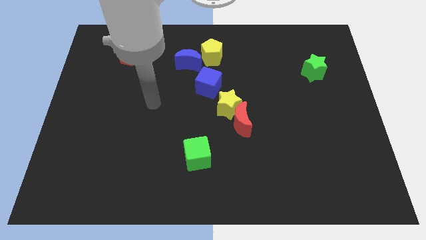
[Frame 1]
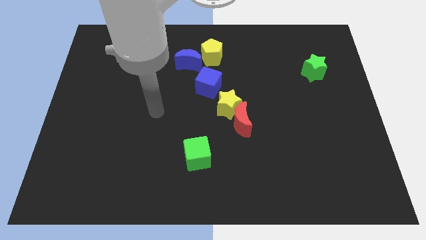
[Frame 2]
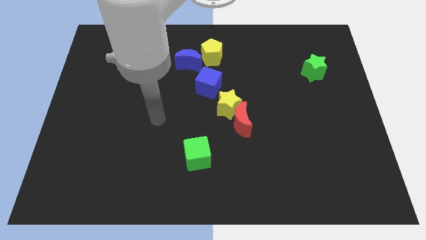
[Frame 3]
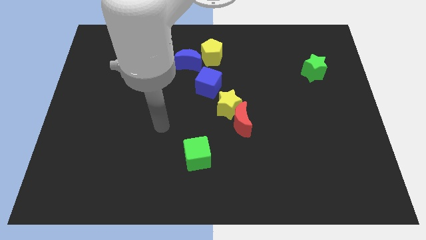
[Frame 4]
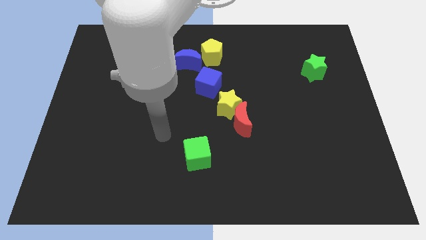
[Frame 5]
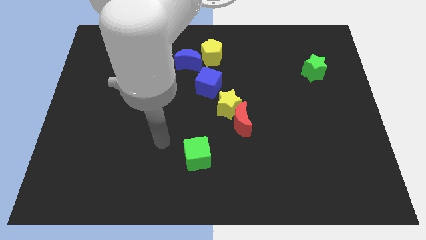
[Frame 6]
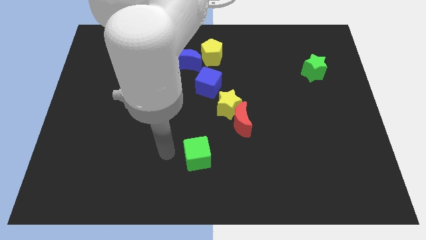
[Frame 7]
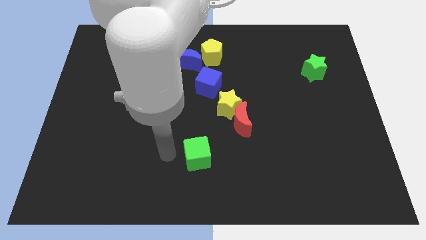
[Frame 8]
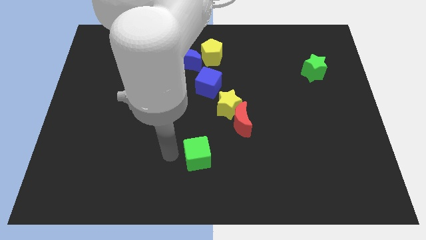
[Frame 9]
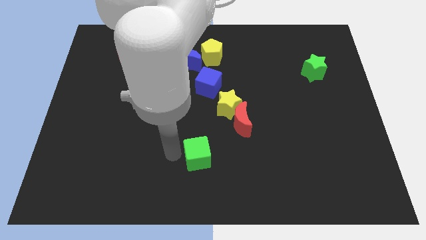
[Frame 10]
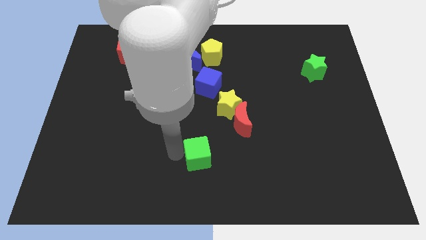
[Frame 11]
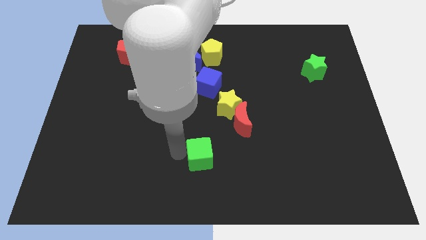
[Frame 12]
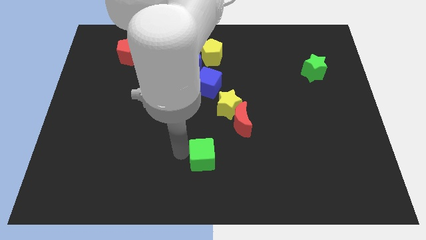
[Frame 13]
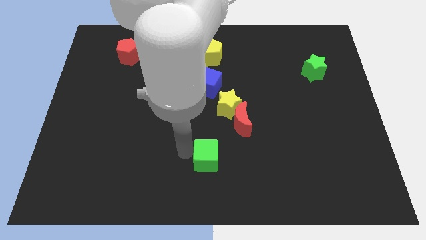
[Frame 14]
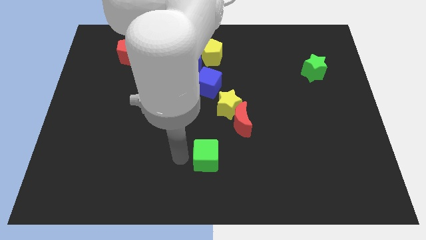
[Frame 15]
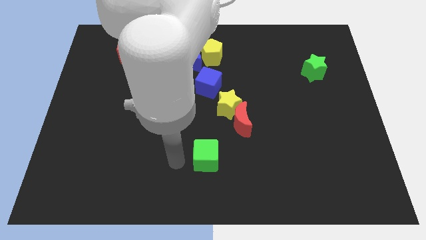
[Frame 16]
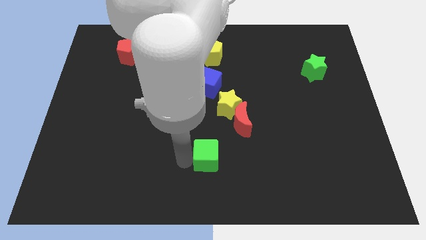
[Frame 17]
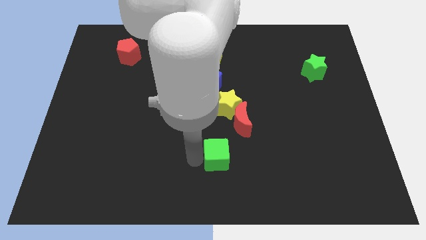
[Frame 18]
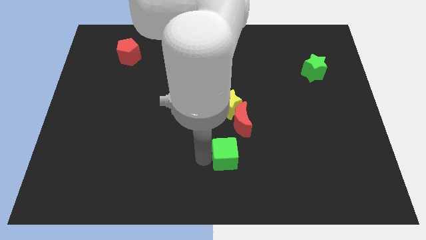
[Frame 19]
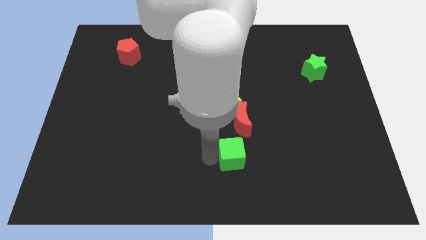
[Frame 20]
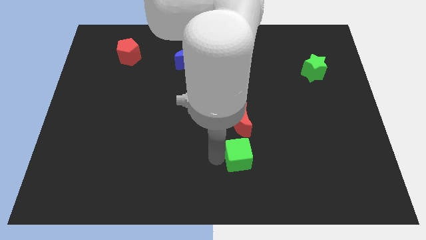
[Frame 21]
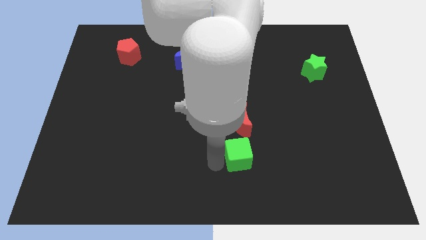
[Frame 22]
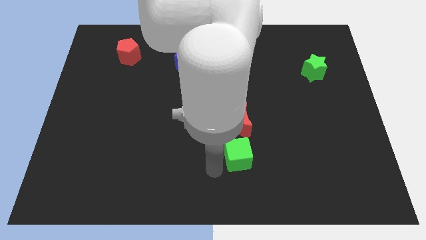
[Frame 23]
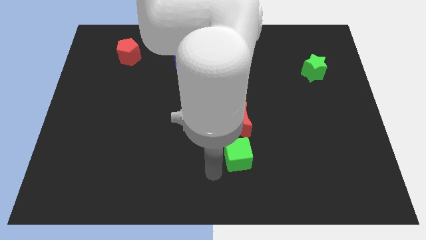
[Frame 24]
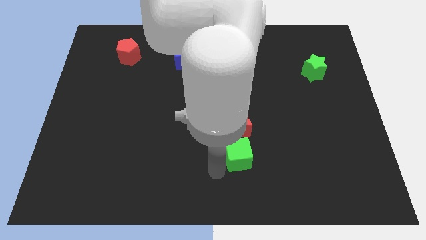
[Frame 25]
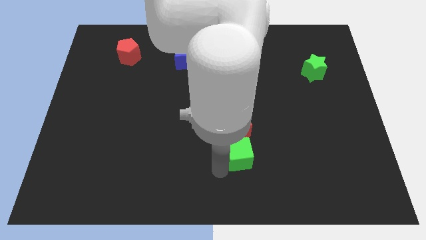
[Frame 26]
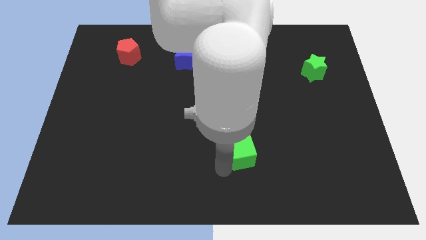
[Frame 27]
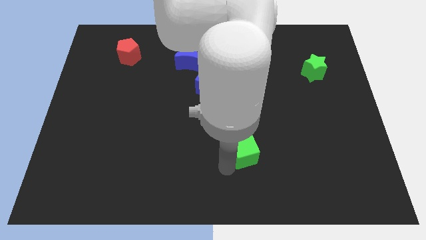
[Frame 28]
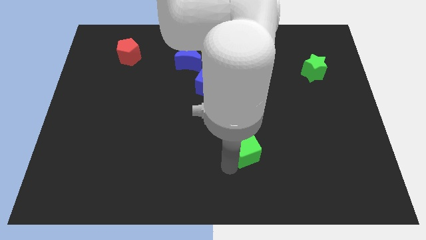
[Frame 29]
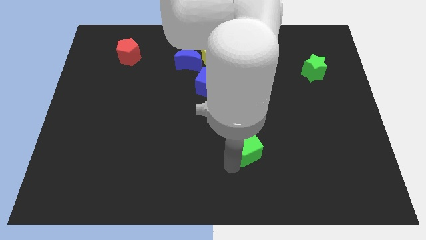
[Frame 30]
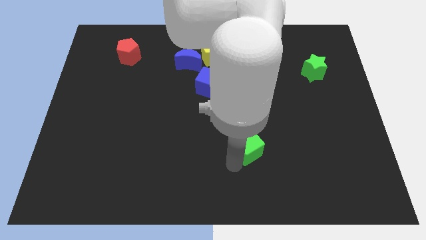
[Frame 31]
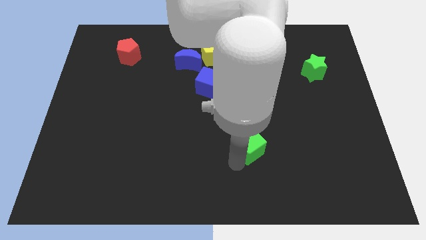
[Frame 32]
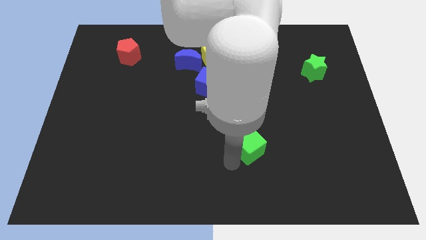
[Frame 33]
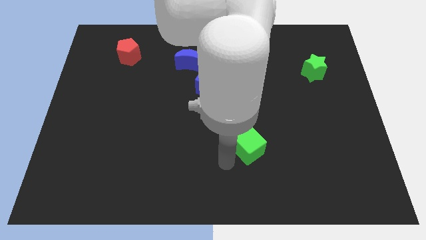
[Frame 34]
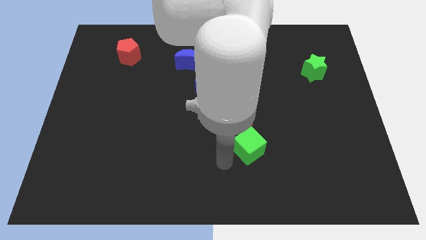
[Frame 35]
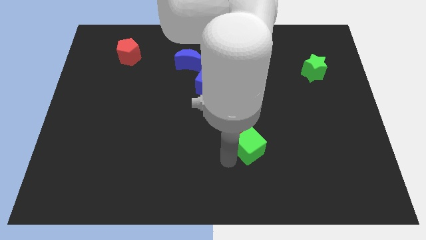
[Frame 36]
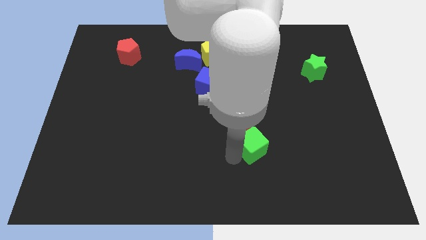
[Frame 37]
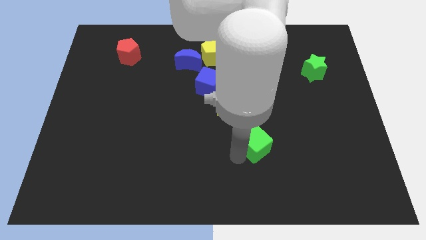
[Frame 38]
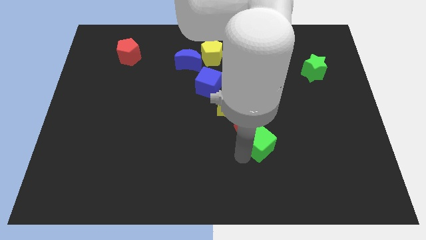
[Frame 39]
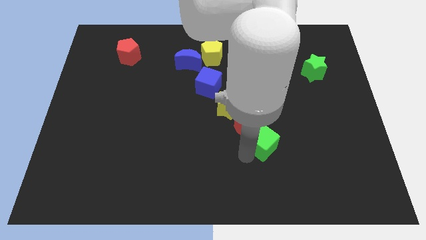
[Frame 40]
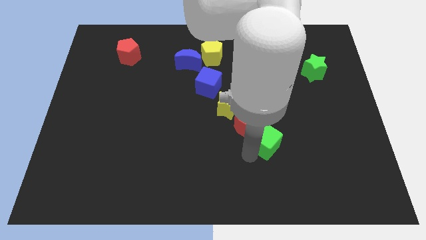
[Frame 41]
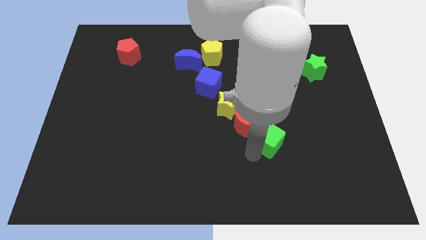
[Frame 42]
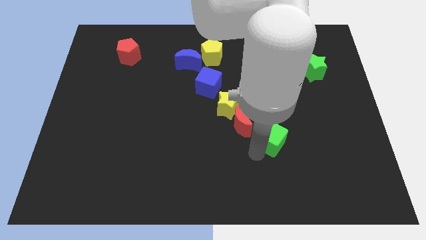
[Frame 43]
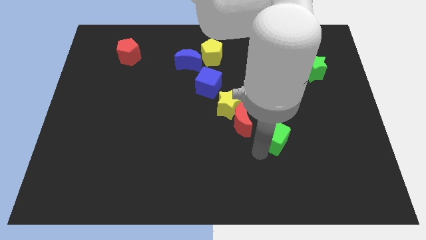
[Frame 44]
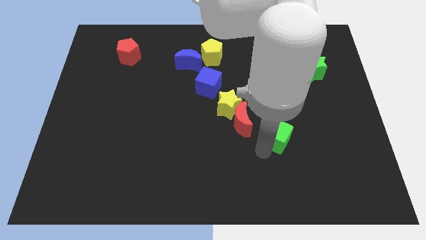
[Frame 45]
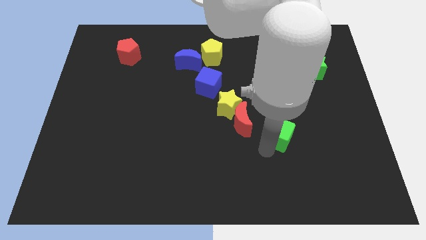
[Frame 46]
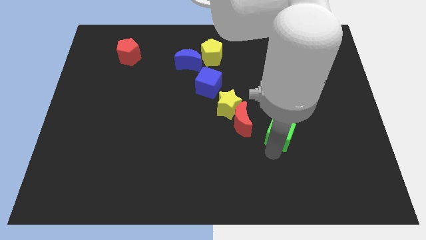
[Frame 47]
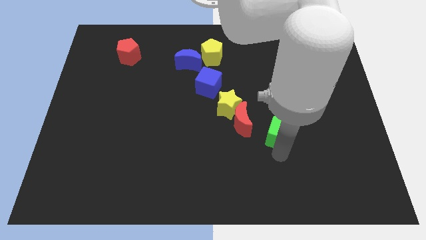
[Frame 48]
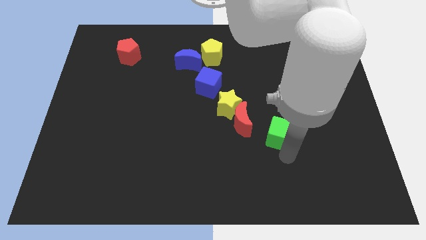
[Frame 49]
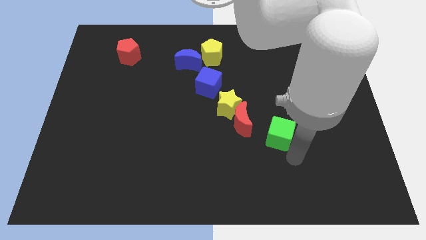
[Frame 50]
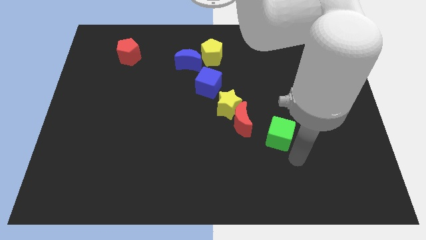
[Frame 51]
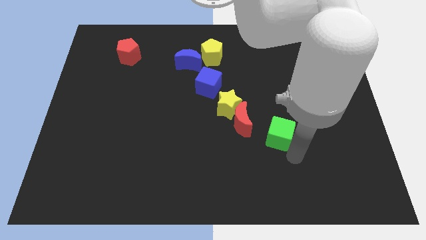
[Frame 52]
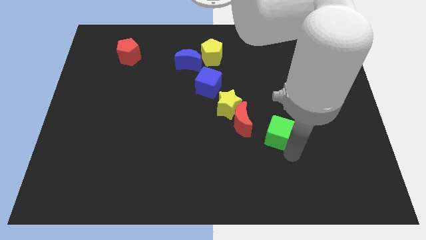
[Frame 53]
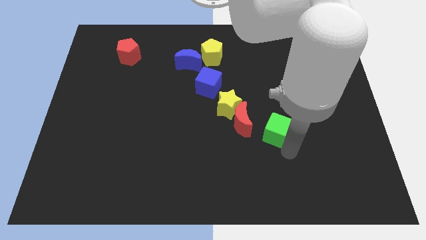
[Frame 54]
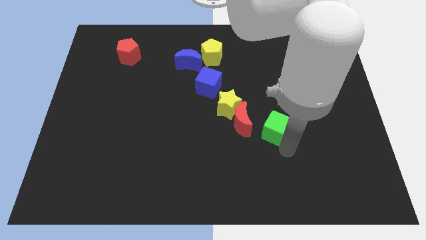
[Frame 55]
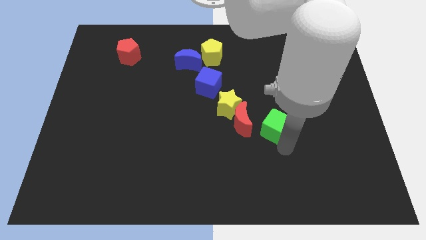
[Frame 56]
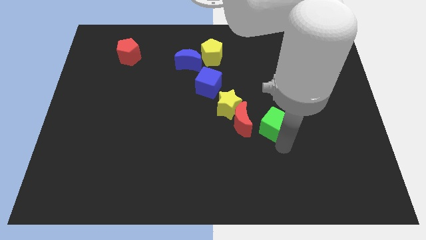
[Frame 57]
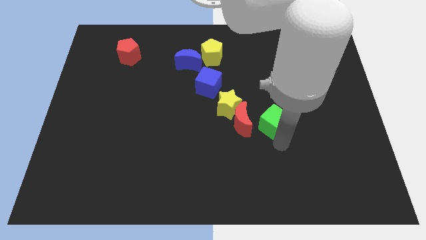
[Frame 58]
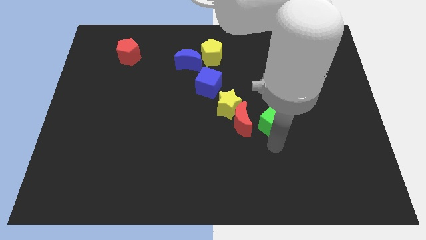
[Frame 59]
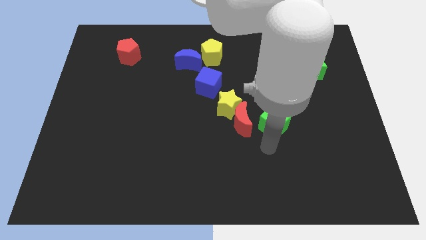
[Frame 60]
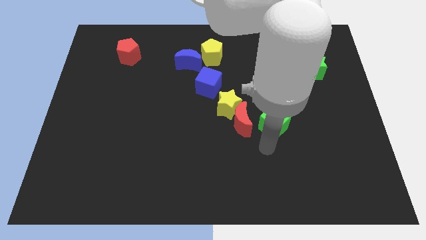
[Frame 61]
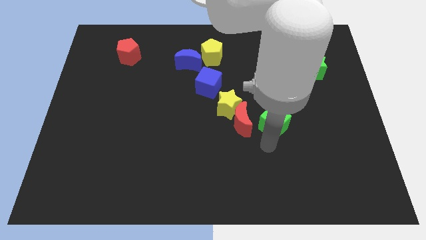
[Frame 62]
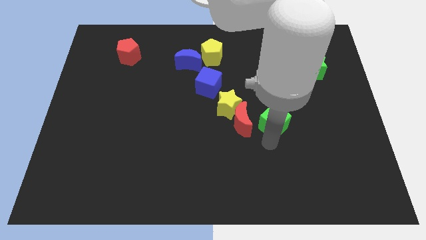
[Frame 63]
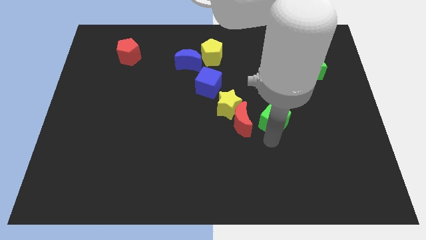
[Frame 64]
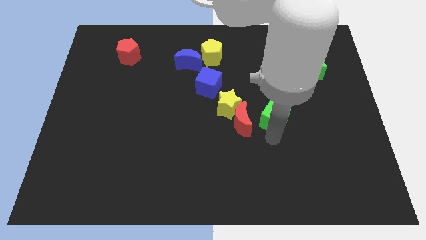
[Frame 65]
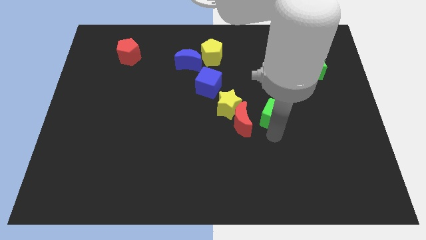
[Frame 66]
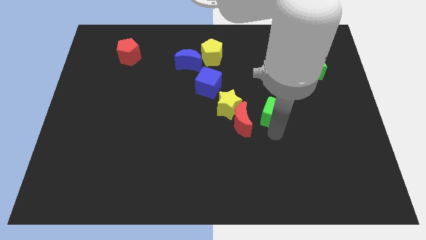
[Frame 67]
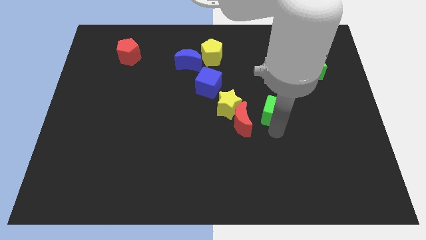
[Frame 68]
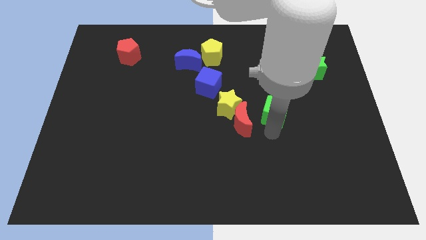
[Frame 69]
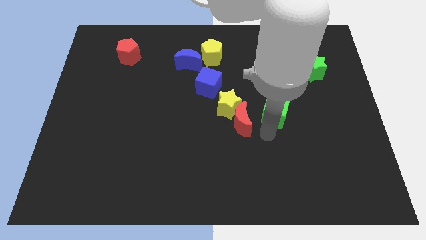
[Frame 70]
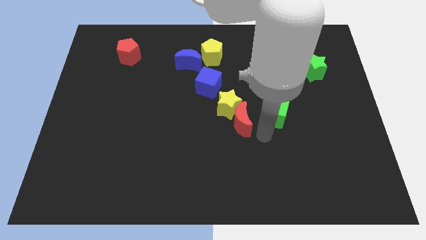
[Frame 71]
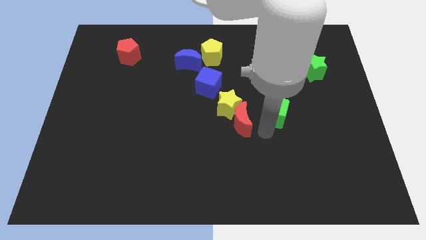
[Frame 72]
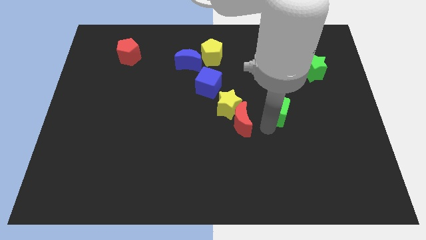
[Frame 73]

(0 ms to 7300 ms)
push the green cube upwards and right diagonally

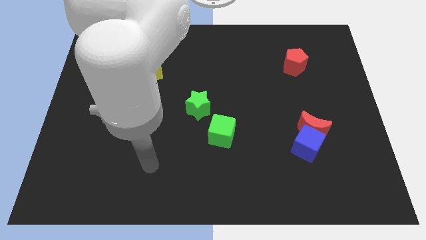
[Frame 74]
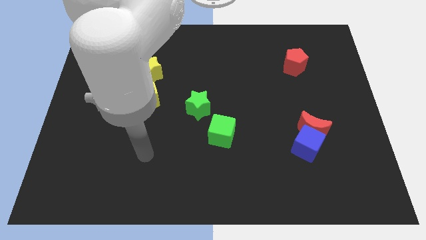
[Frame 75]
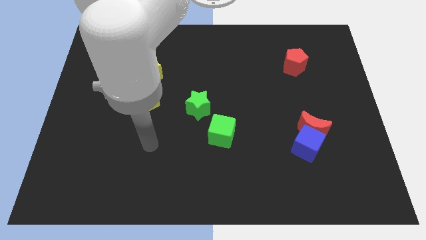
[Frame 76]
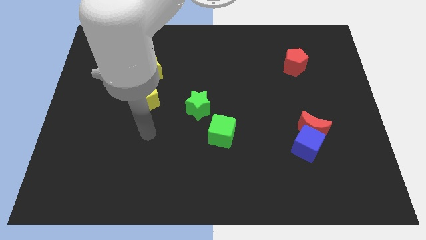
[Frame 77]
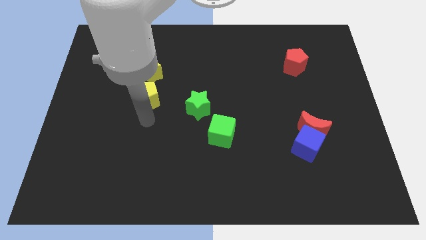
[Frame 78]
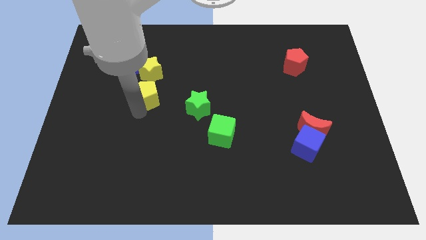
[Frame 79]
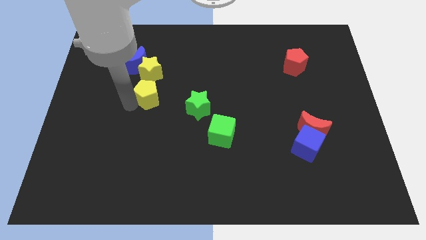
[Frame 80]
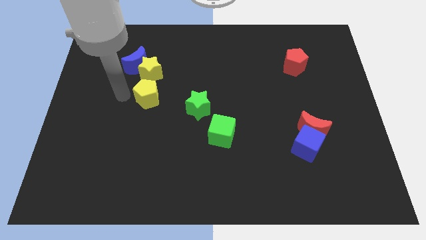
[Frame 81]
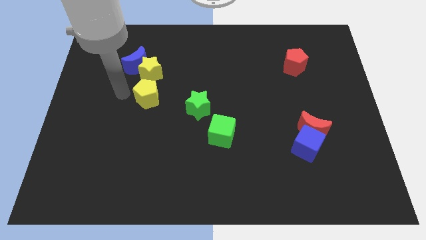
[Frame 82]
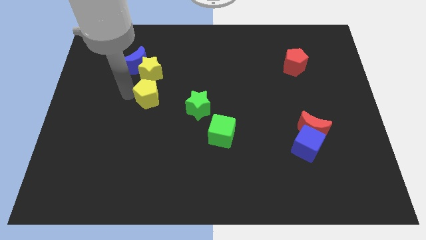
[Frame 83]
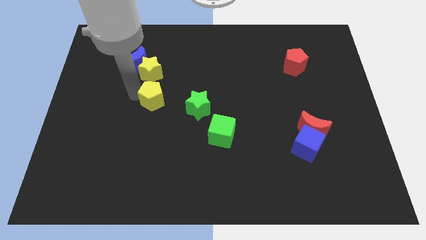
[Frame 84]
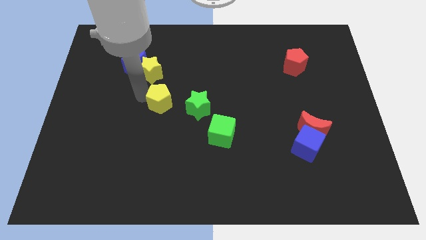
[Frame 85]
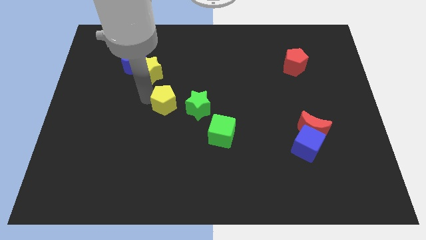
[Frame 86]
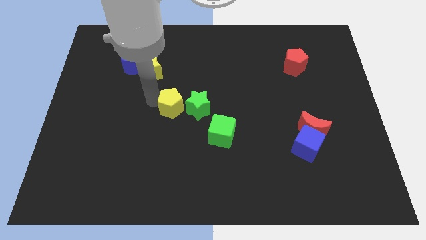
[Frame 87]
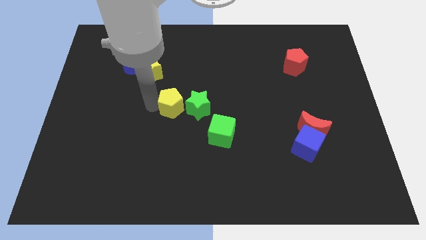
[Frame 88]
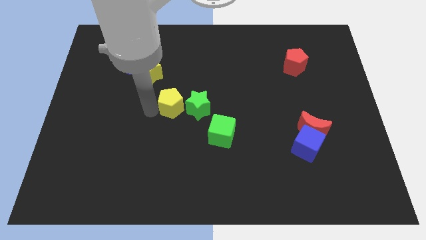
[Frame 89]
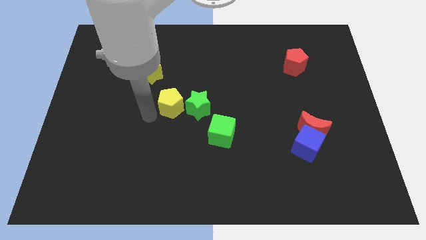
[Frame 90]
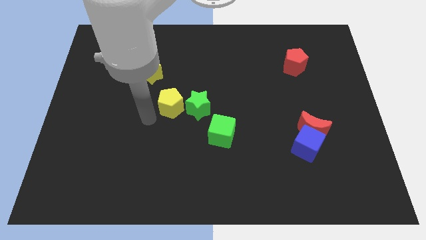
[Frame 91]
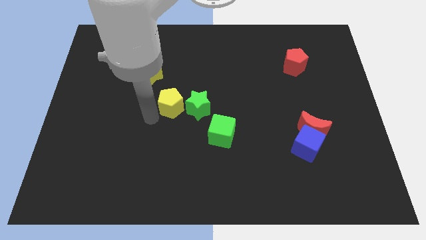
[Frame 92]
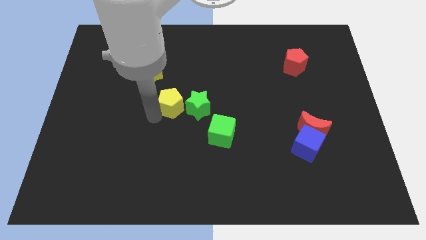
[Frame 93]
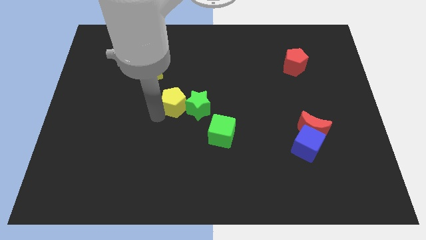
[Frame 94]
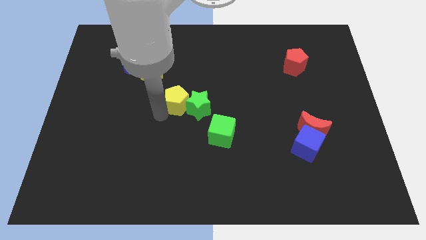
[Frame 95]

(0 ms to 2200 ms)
slide the yellow pentagon somewhat to the right
